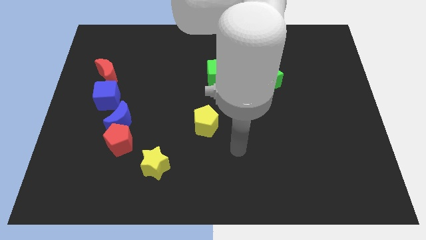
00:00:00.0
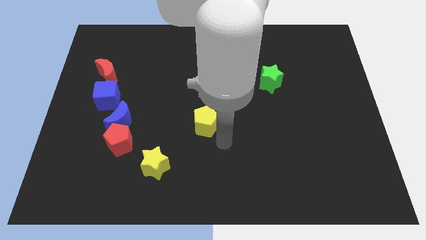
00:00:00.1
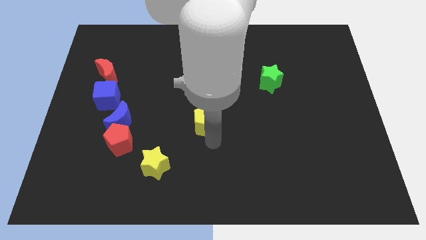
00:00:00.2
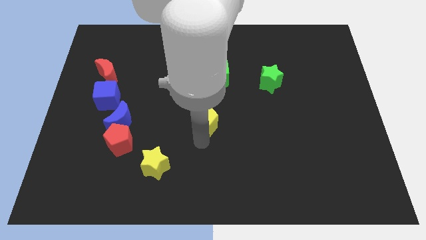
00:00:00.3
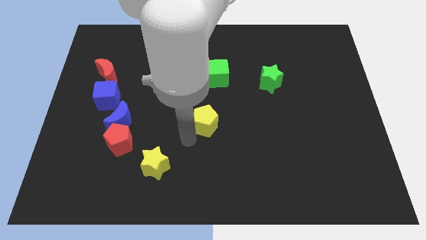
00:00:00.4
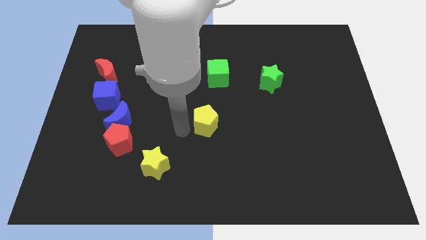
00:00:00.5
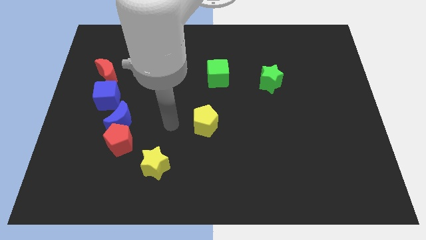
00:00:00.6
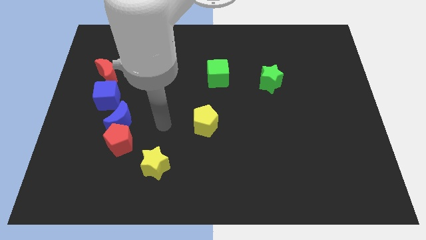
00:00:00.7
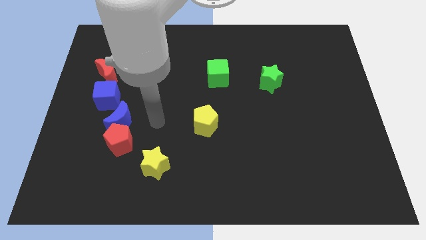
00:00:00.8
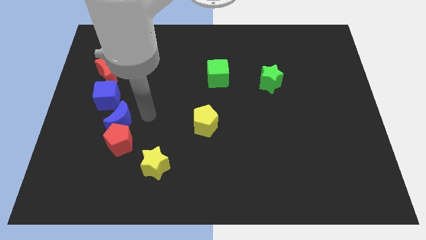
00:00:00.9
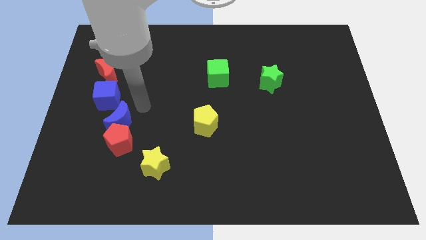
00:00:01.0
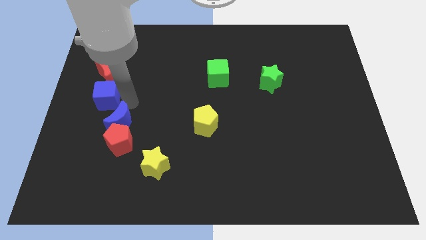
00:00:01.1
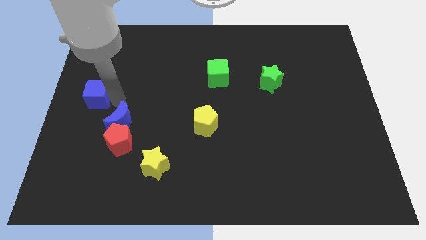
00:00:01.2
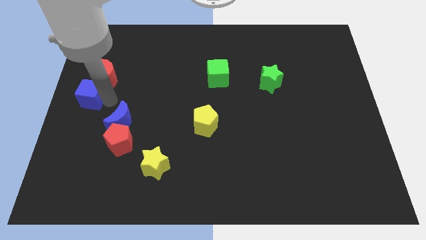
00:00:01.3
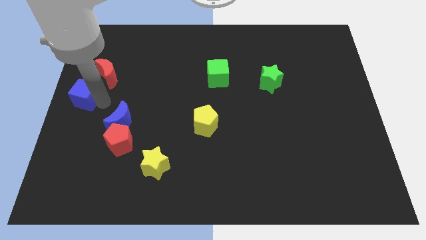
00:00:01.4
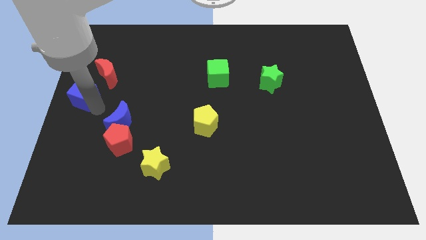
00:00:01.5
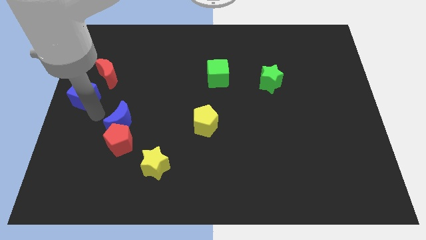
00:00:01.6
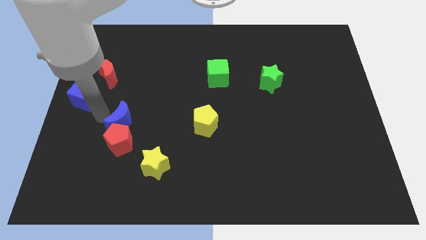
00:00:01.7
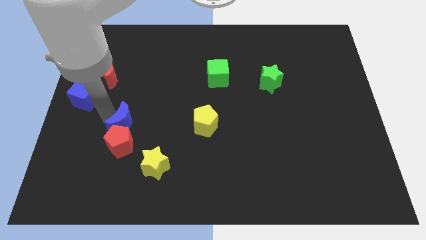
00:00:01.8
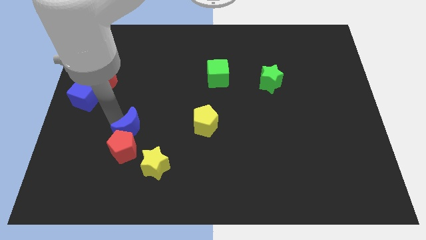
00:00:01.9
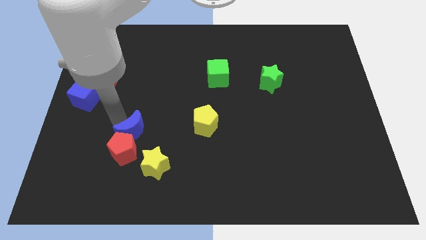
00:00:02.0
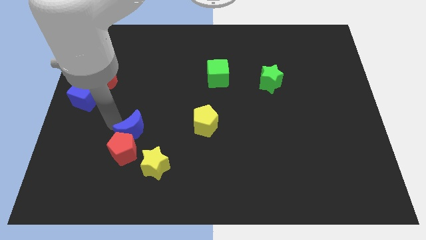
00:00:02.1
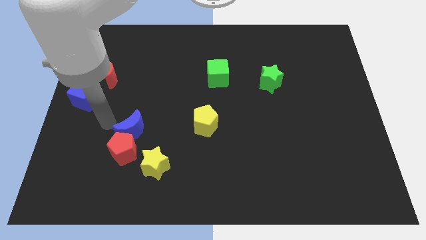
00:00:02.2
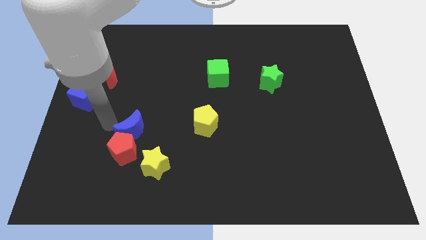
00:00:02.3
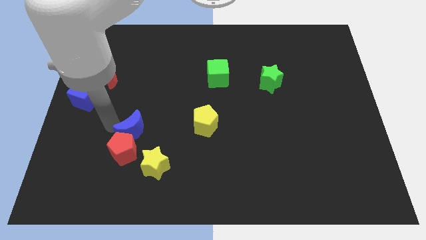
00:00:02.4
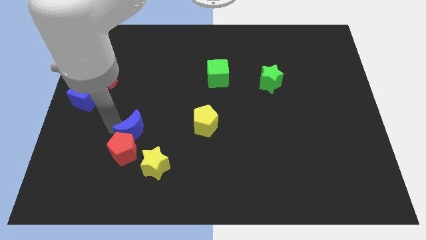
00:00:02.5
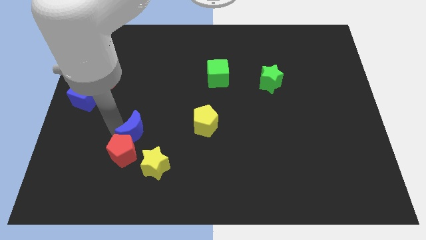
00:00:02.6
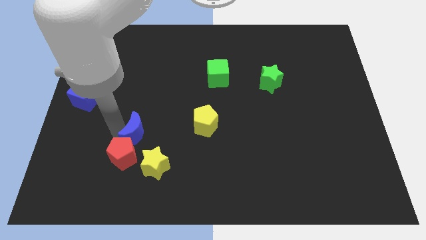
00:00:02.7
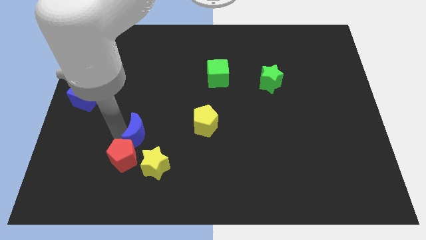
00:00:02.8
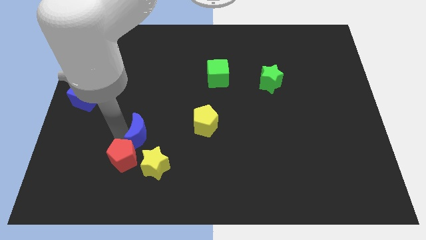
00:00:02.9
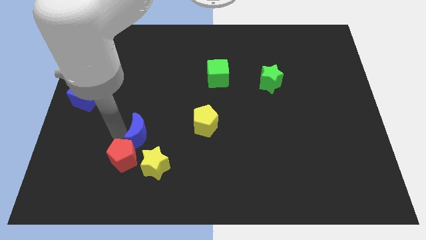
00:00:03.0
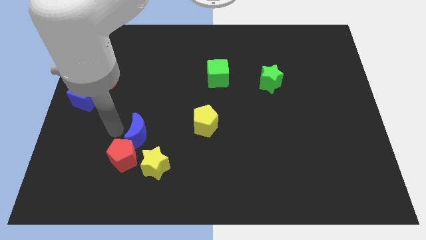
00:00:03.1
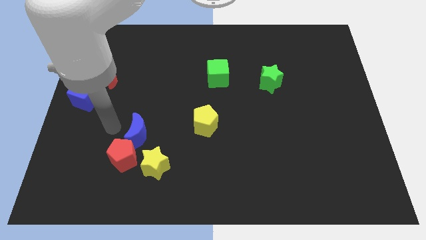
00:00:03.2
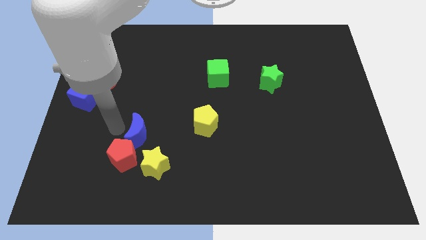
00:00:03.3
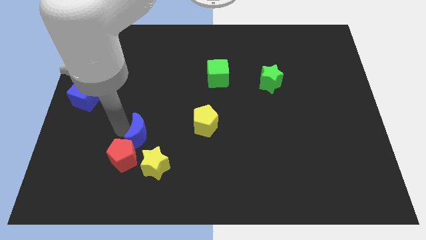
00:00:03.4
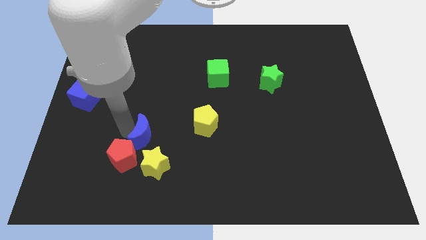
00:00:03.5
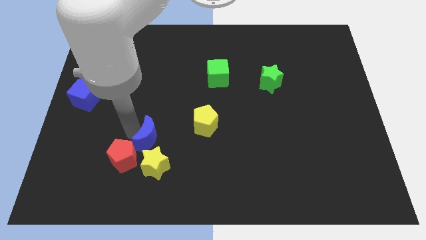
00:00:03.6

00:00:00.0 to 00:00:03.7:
separate the blue moon from the red pentagon and blue cube

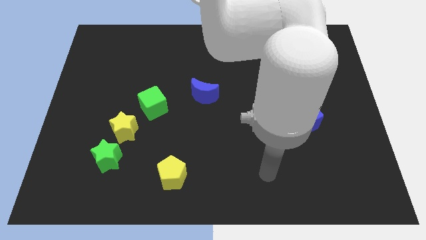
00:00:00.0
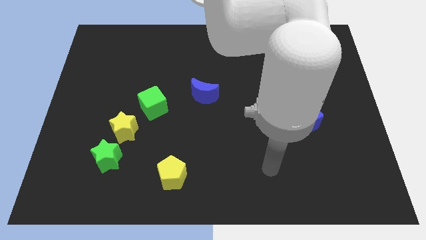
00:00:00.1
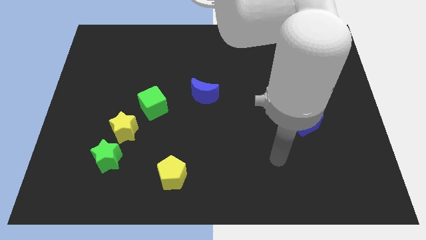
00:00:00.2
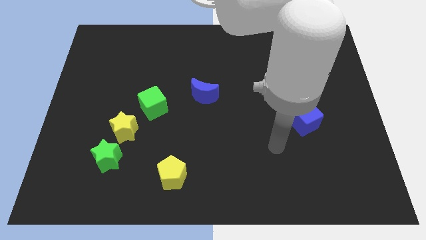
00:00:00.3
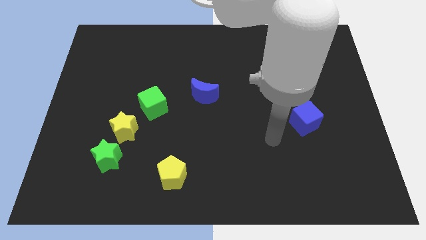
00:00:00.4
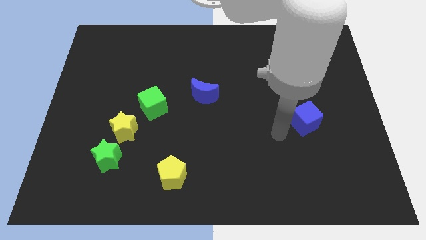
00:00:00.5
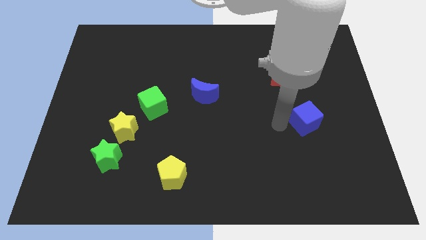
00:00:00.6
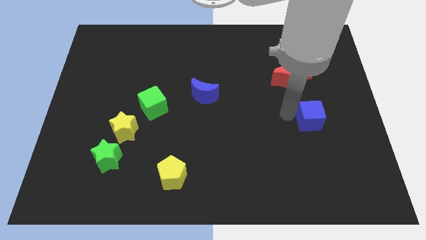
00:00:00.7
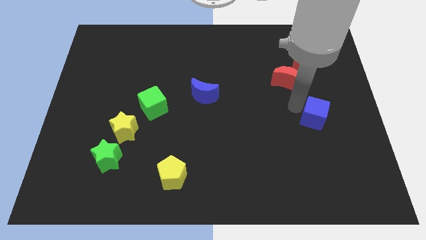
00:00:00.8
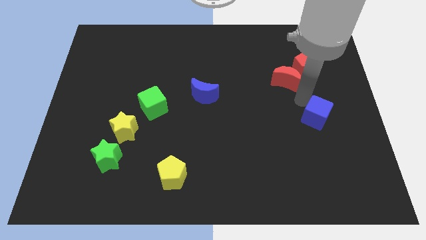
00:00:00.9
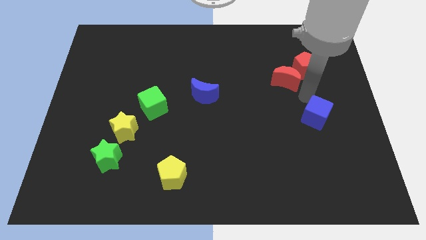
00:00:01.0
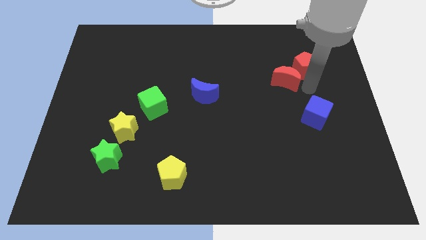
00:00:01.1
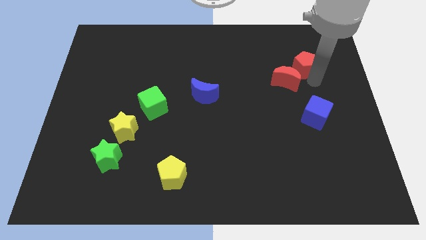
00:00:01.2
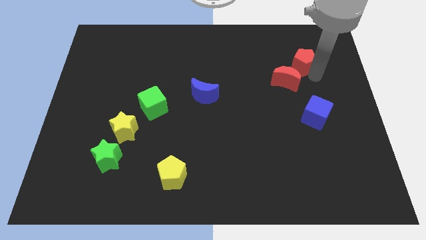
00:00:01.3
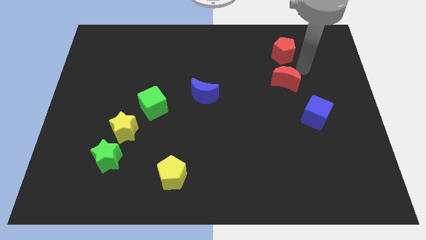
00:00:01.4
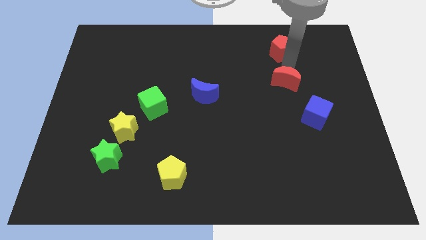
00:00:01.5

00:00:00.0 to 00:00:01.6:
pull the red moon apart from the red pentagon

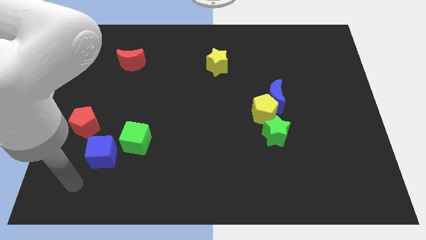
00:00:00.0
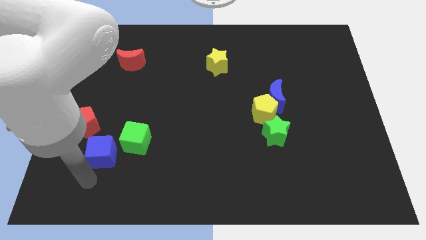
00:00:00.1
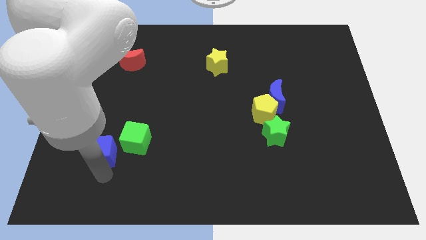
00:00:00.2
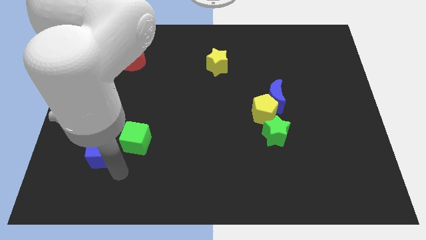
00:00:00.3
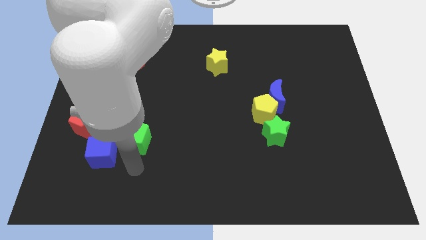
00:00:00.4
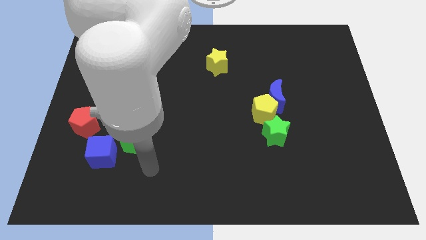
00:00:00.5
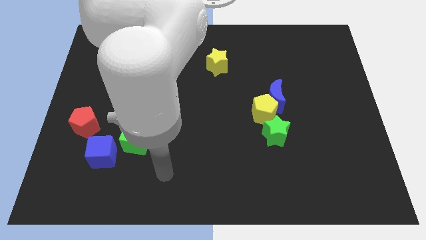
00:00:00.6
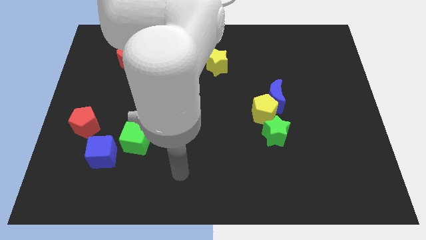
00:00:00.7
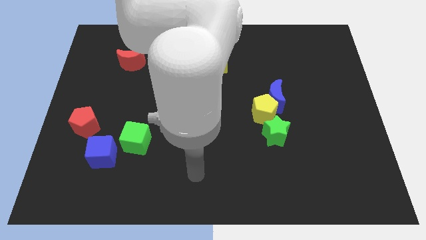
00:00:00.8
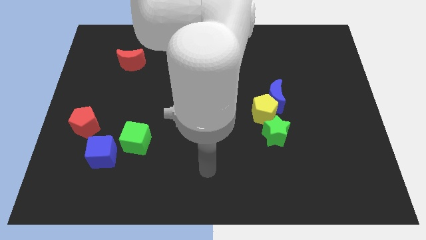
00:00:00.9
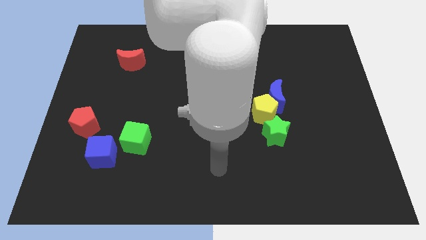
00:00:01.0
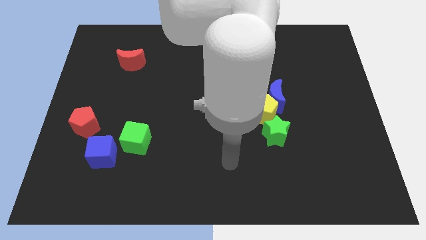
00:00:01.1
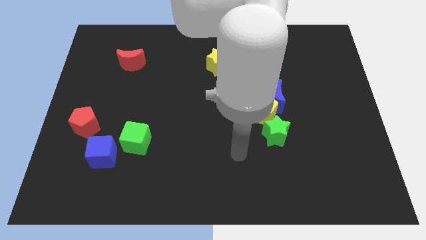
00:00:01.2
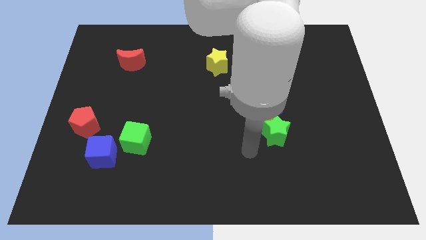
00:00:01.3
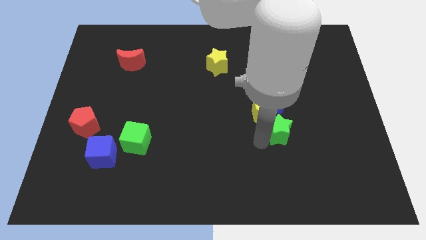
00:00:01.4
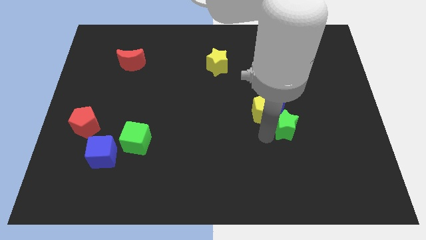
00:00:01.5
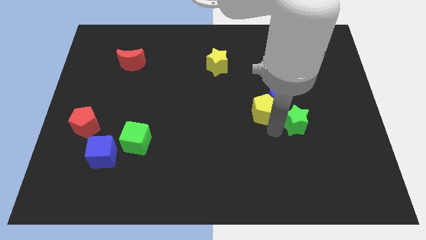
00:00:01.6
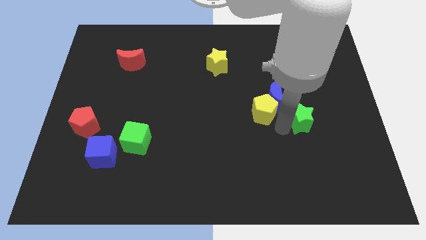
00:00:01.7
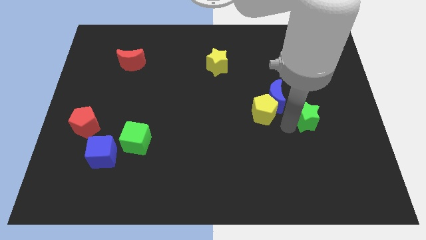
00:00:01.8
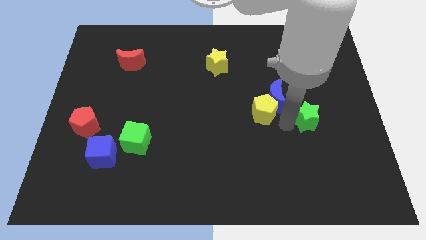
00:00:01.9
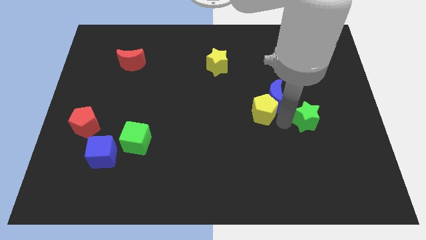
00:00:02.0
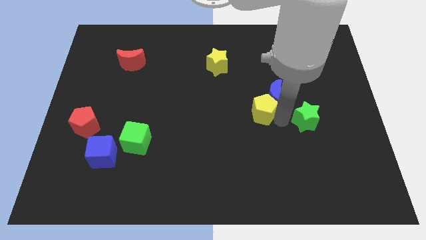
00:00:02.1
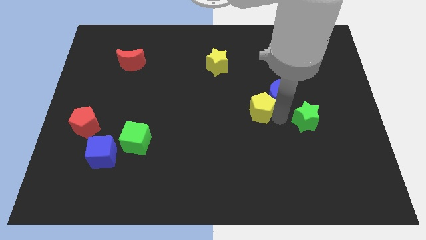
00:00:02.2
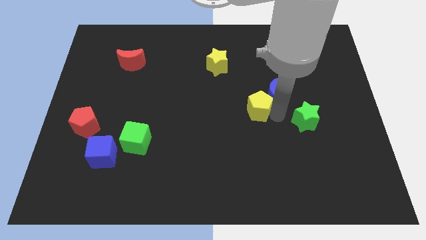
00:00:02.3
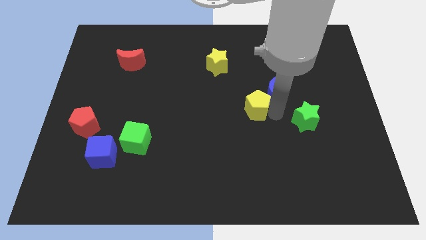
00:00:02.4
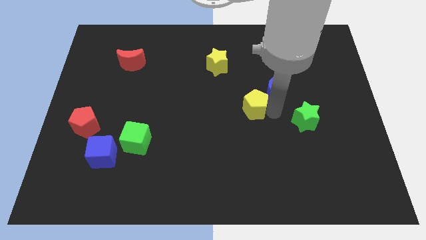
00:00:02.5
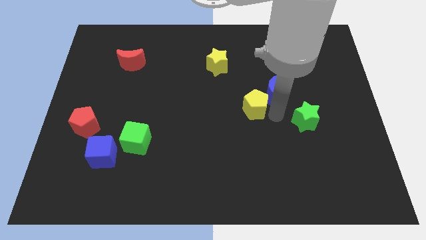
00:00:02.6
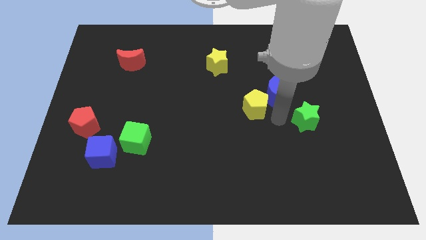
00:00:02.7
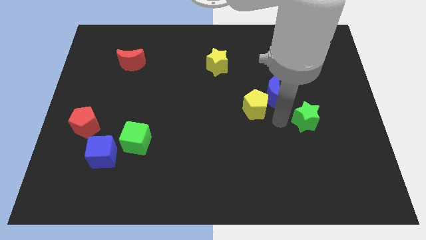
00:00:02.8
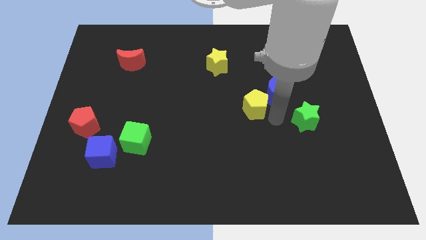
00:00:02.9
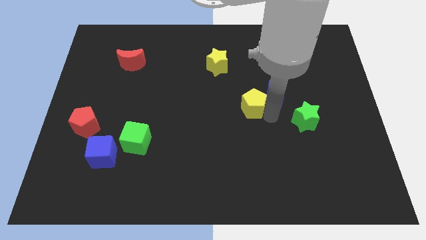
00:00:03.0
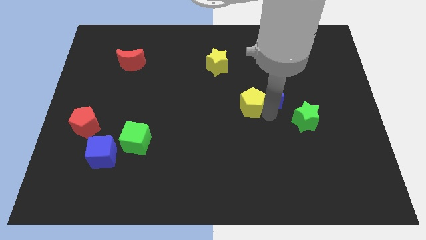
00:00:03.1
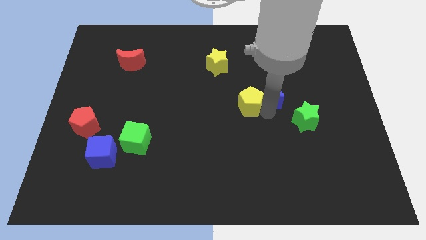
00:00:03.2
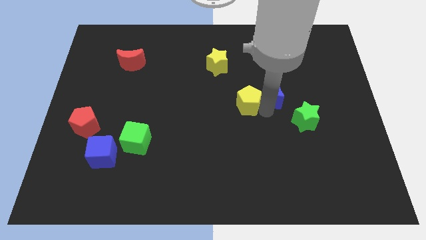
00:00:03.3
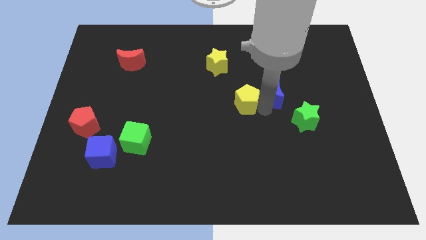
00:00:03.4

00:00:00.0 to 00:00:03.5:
move the yellow pentagon away from the blue moon and green star

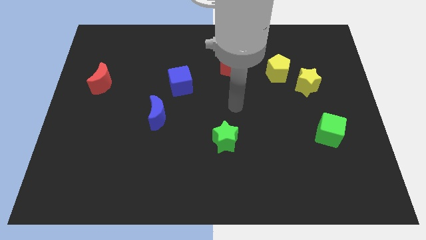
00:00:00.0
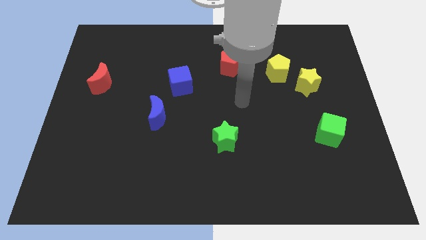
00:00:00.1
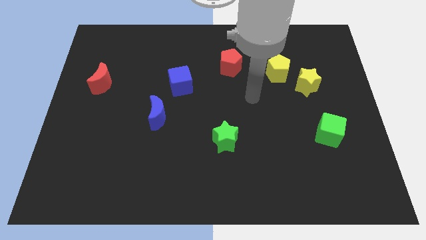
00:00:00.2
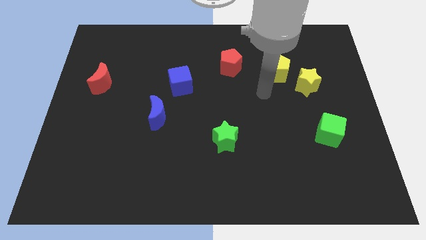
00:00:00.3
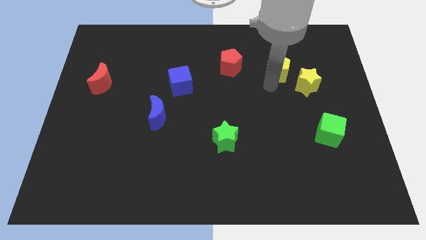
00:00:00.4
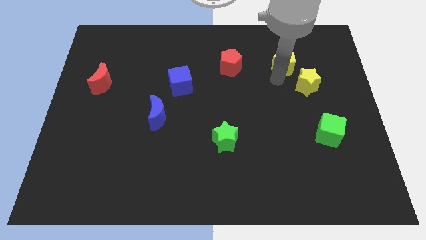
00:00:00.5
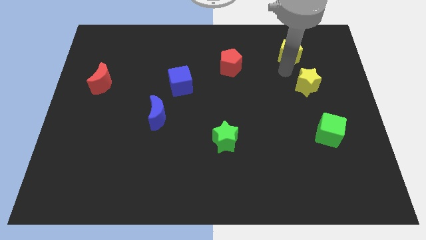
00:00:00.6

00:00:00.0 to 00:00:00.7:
move the yellow star away from the yellow pentagon
